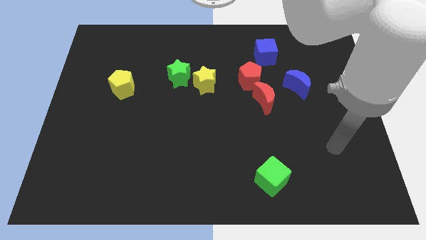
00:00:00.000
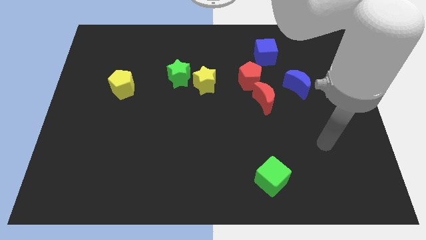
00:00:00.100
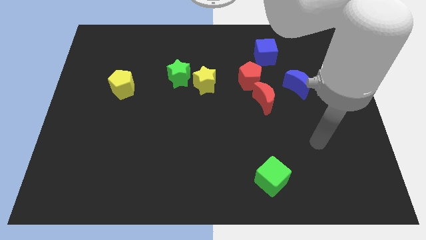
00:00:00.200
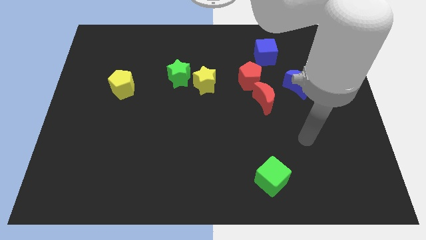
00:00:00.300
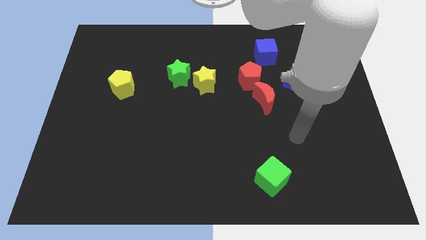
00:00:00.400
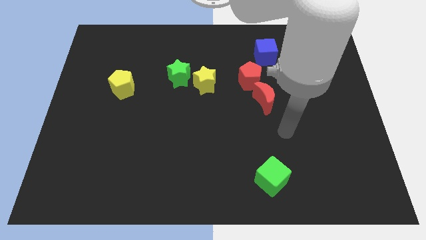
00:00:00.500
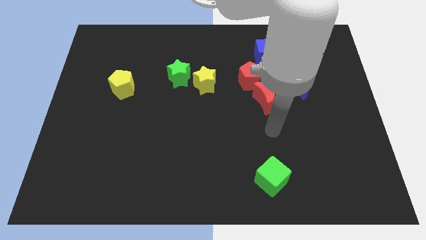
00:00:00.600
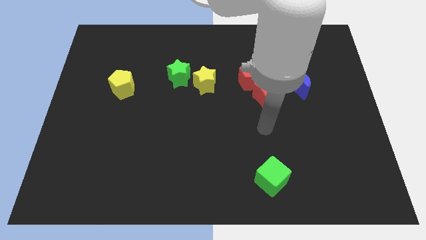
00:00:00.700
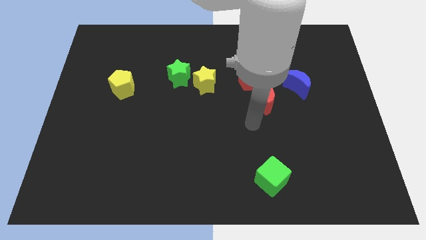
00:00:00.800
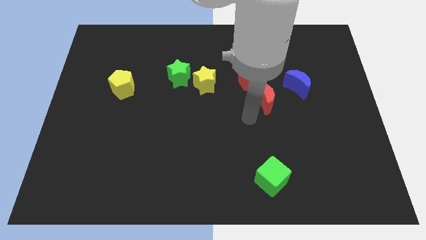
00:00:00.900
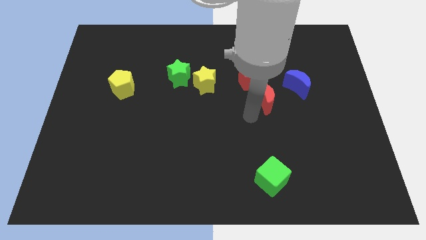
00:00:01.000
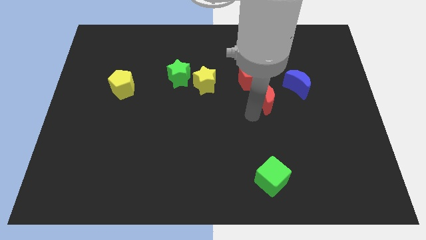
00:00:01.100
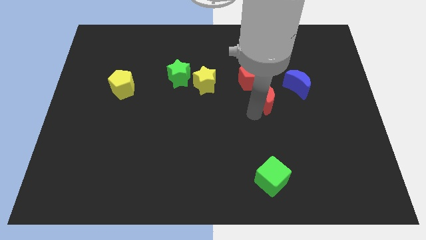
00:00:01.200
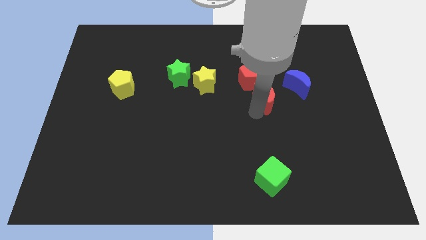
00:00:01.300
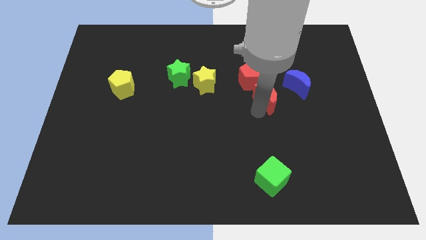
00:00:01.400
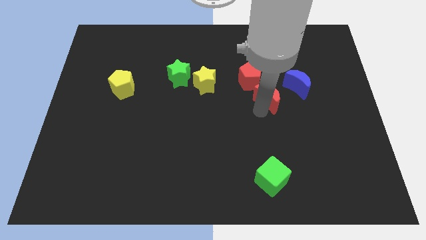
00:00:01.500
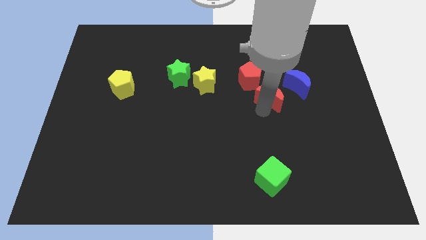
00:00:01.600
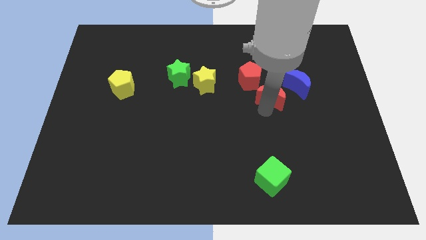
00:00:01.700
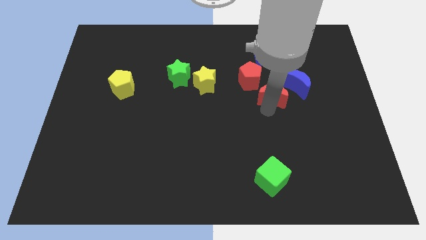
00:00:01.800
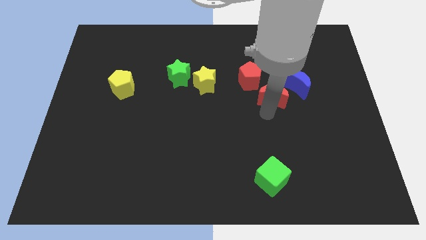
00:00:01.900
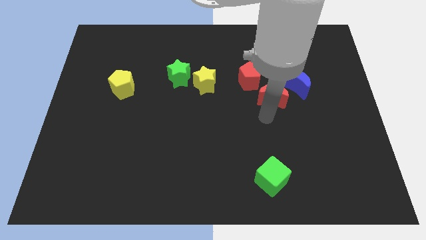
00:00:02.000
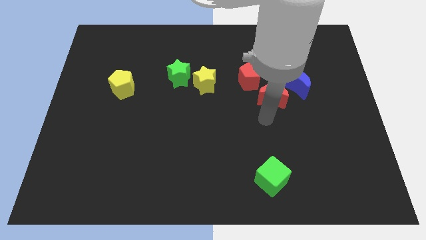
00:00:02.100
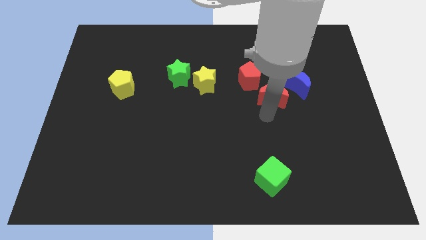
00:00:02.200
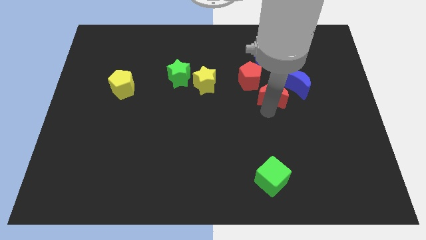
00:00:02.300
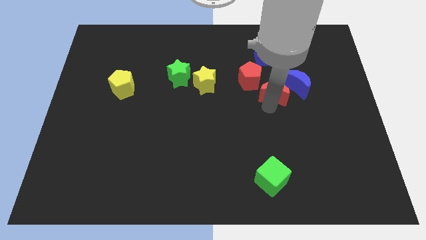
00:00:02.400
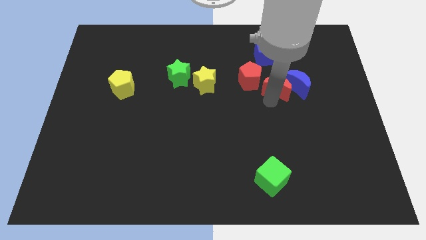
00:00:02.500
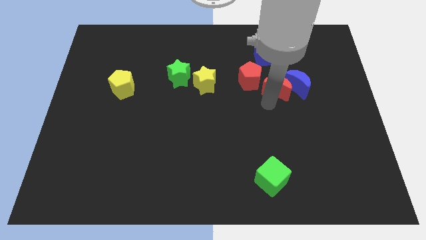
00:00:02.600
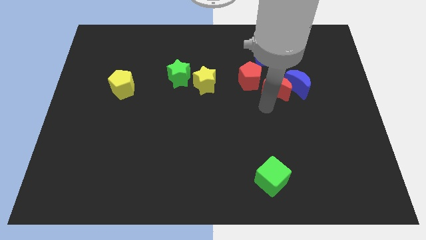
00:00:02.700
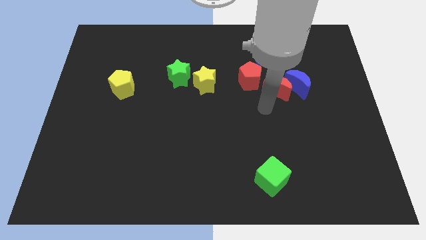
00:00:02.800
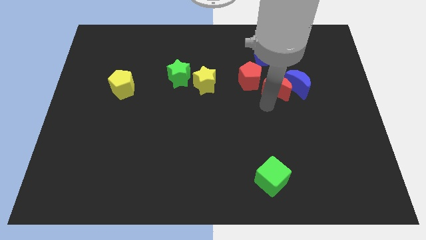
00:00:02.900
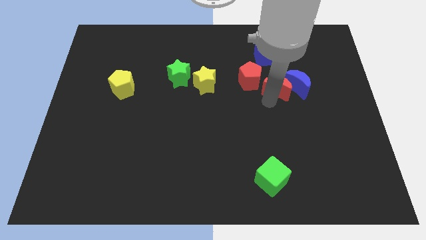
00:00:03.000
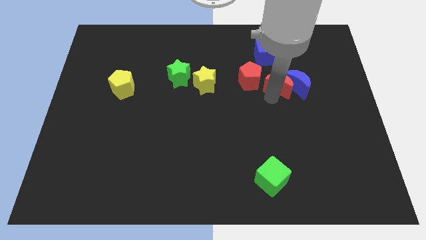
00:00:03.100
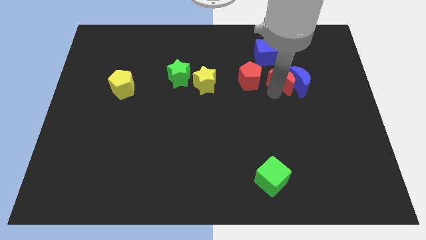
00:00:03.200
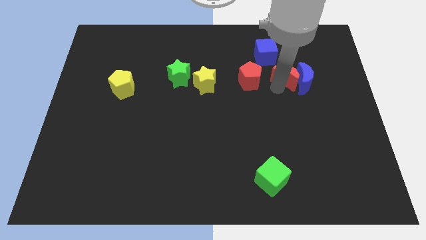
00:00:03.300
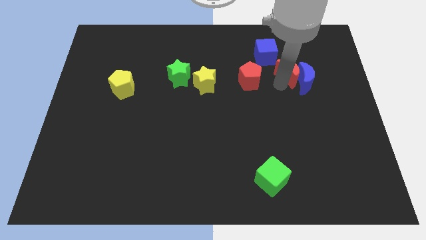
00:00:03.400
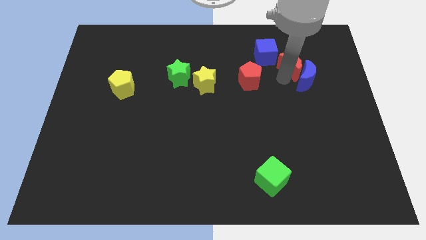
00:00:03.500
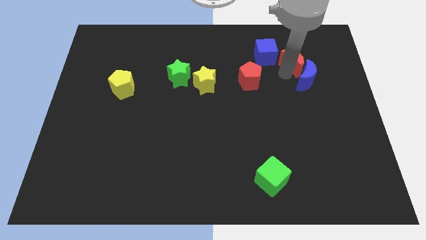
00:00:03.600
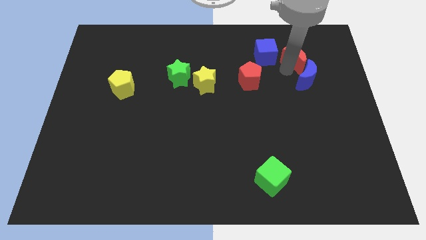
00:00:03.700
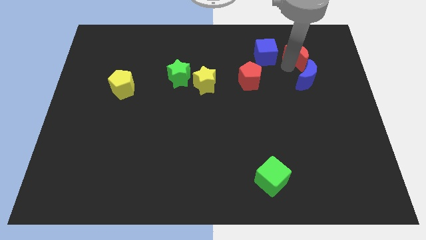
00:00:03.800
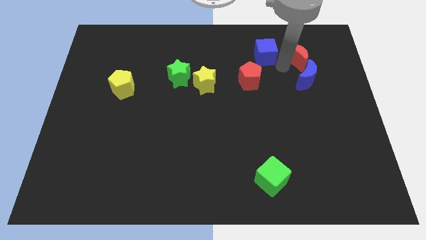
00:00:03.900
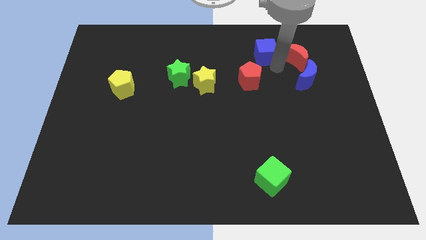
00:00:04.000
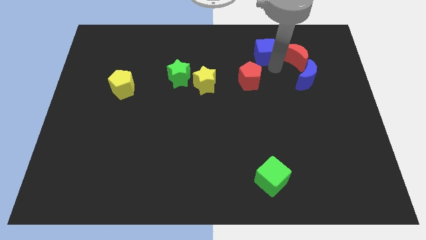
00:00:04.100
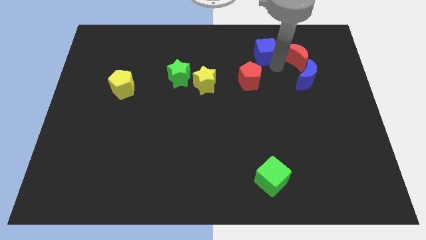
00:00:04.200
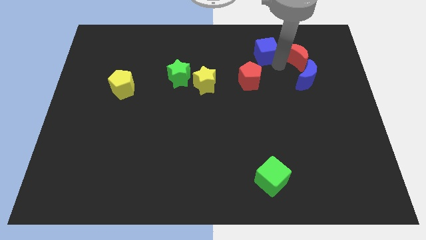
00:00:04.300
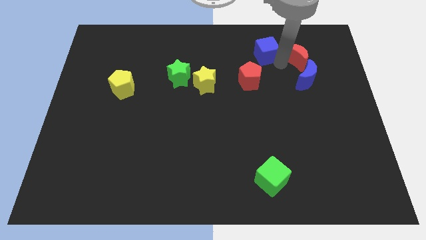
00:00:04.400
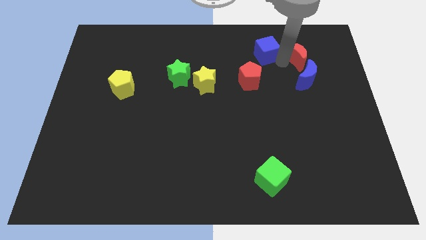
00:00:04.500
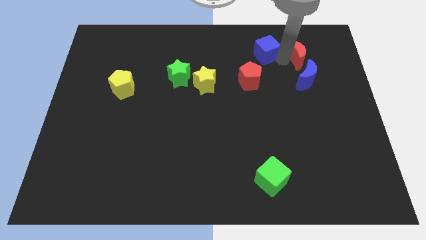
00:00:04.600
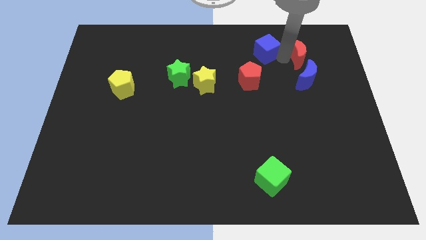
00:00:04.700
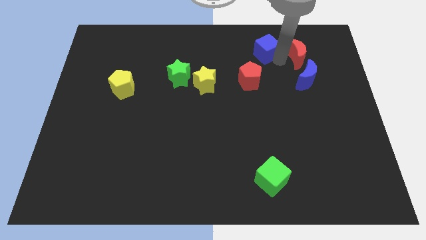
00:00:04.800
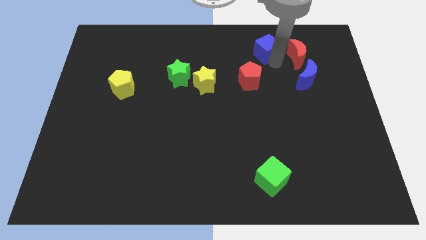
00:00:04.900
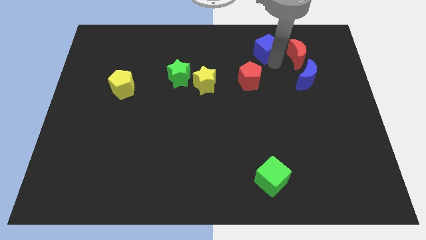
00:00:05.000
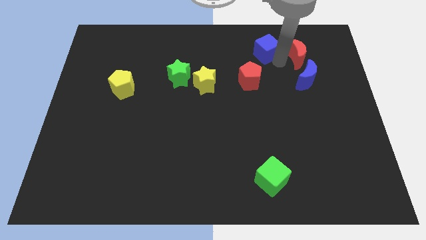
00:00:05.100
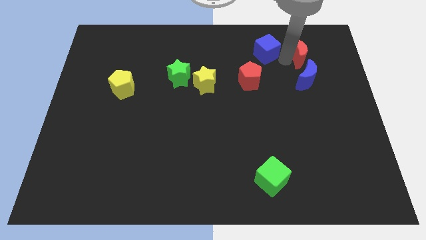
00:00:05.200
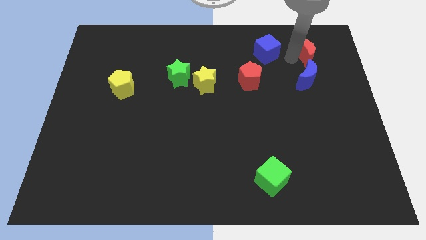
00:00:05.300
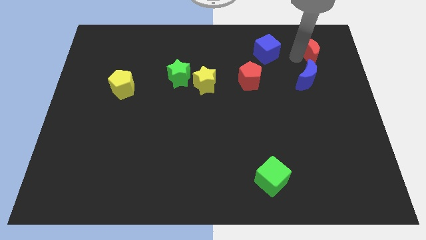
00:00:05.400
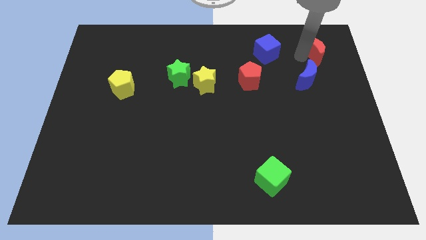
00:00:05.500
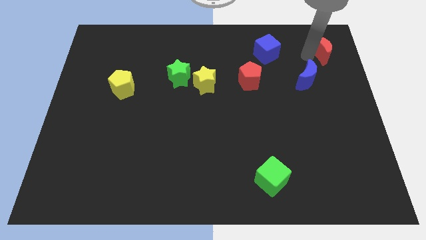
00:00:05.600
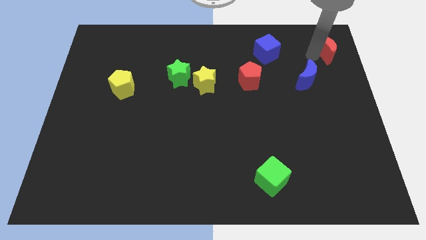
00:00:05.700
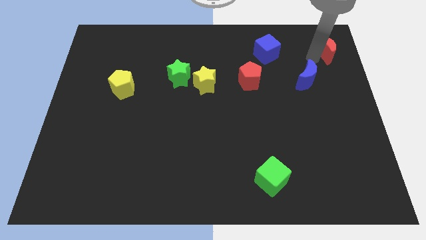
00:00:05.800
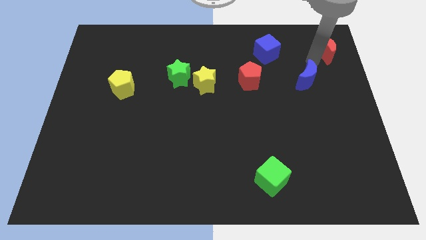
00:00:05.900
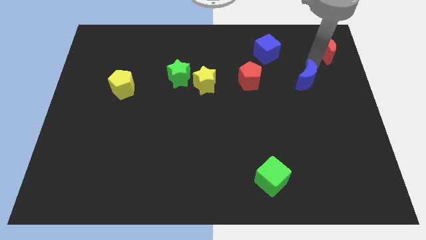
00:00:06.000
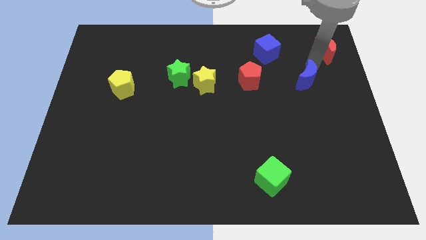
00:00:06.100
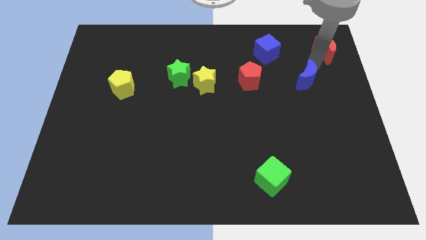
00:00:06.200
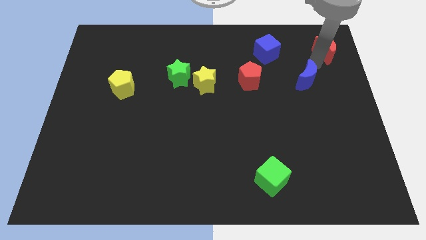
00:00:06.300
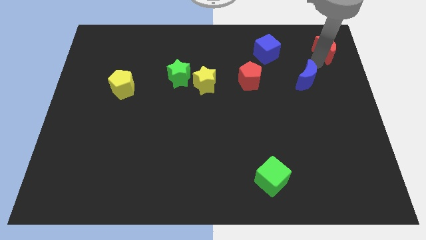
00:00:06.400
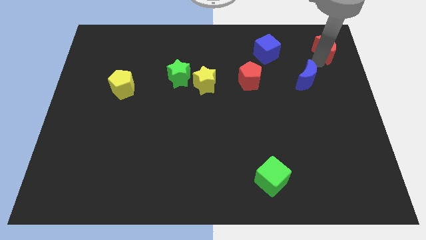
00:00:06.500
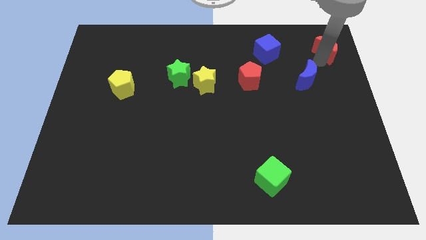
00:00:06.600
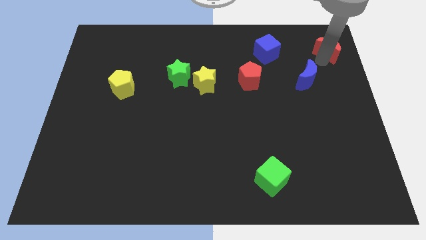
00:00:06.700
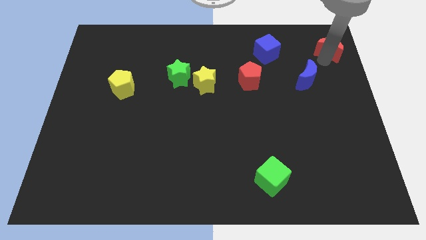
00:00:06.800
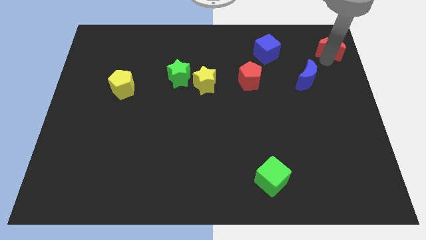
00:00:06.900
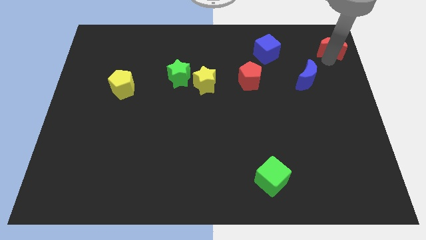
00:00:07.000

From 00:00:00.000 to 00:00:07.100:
put the red moon to the top right corner
